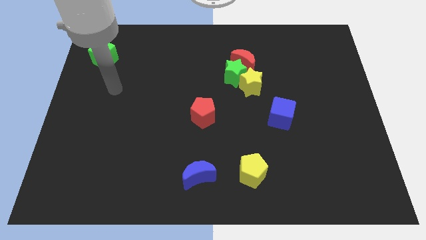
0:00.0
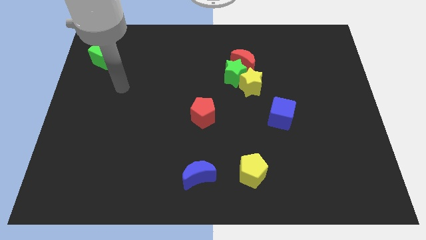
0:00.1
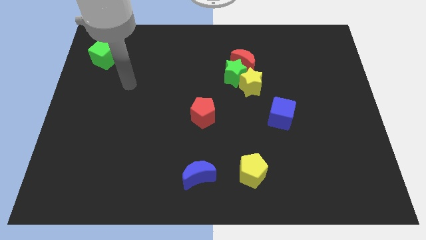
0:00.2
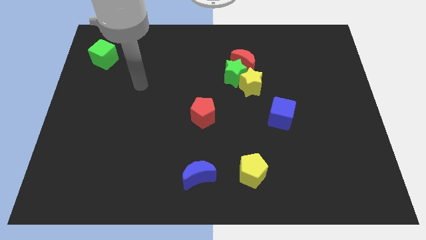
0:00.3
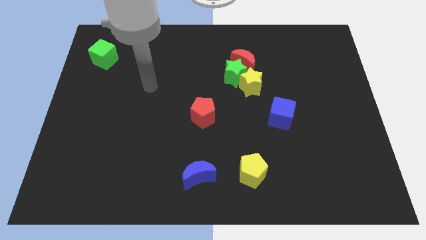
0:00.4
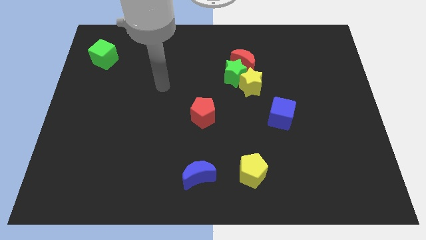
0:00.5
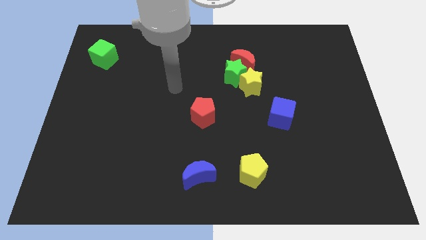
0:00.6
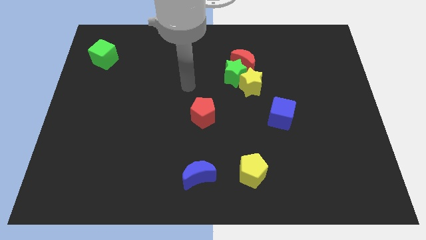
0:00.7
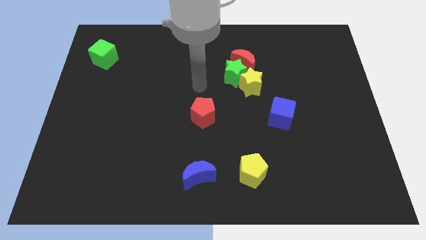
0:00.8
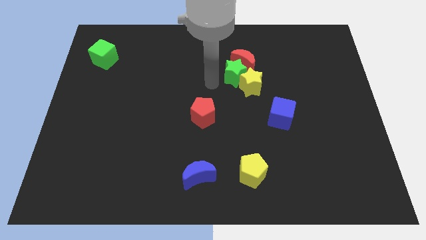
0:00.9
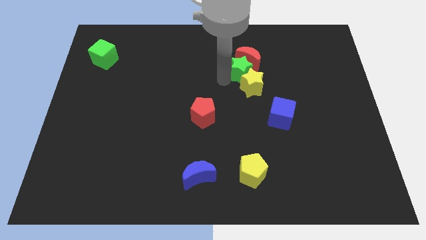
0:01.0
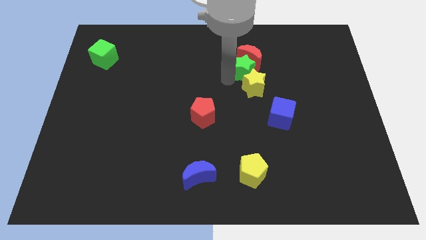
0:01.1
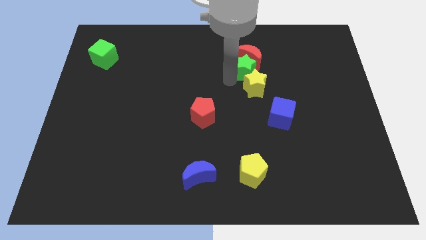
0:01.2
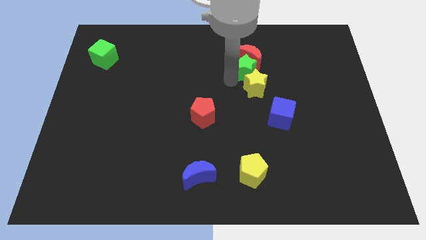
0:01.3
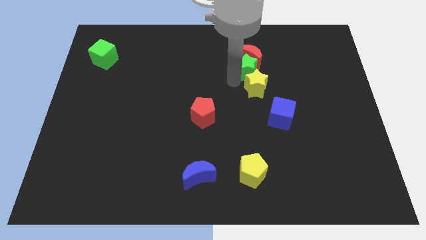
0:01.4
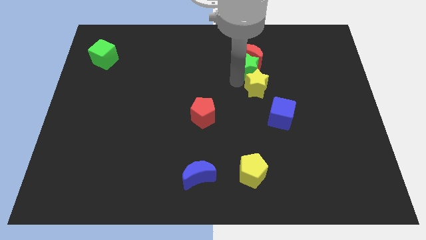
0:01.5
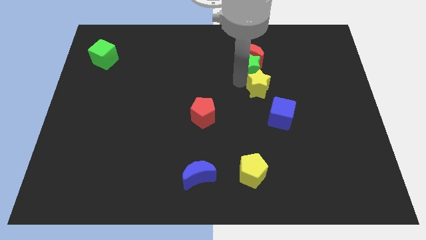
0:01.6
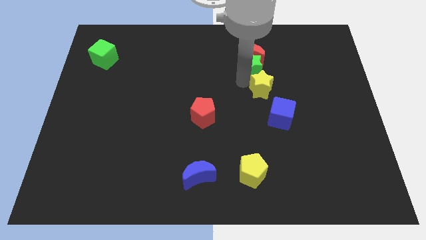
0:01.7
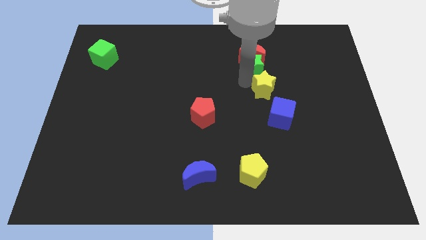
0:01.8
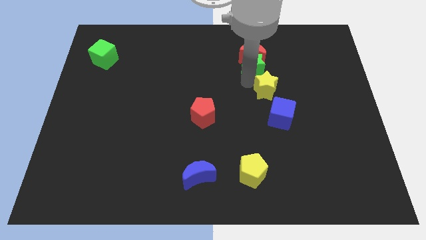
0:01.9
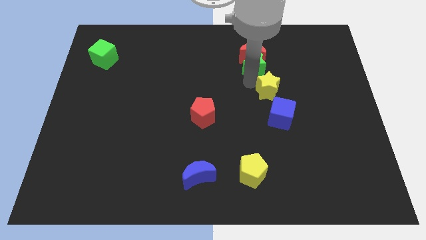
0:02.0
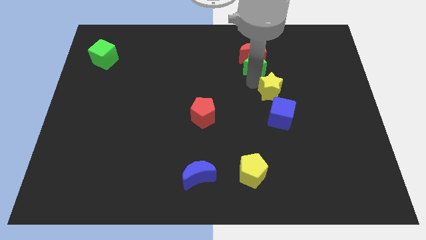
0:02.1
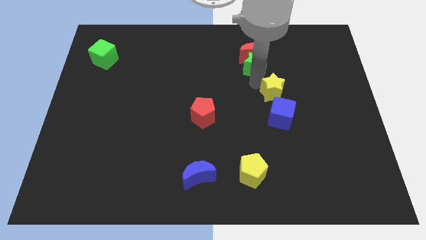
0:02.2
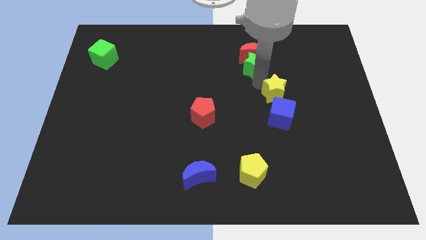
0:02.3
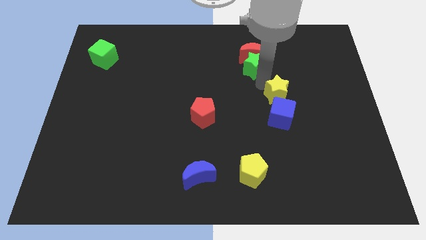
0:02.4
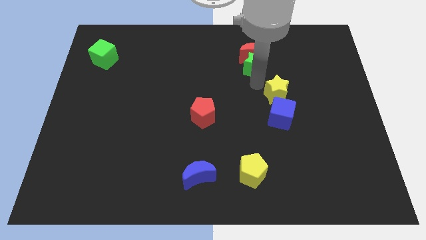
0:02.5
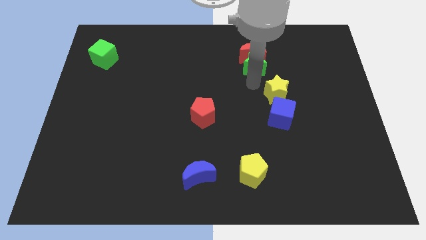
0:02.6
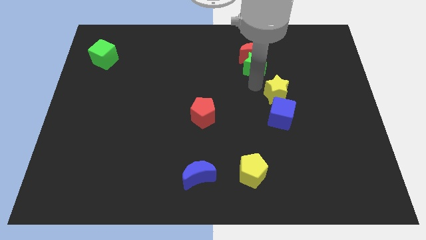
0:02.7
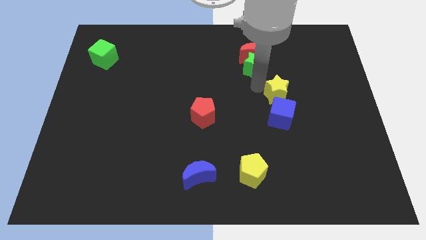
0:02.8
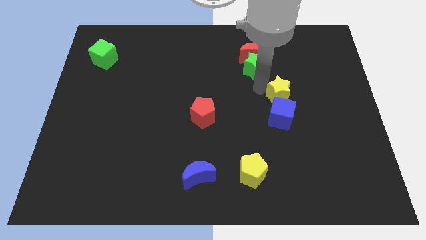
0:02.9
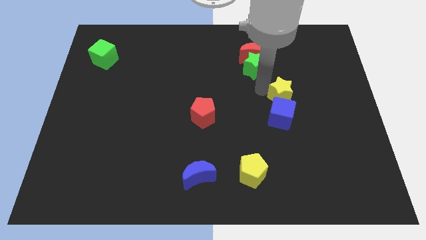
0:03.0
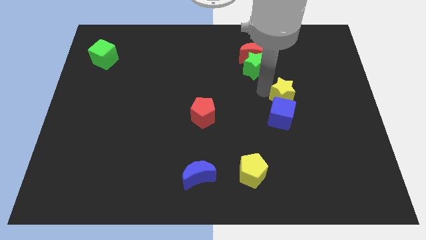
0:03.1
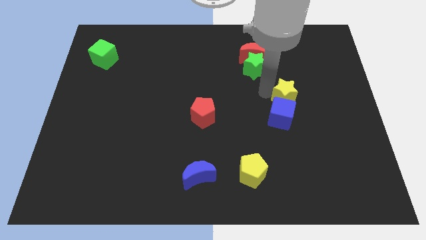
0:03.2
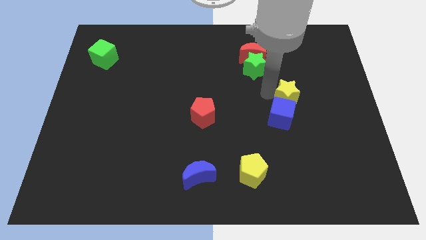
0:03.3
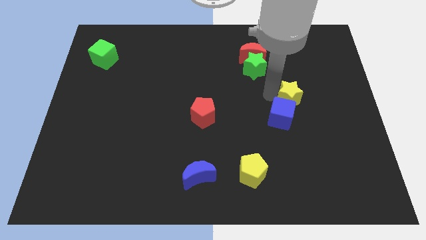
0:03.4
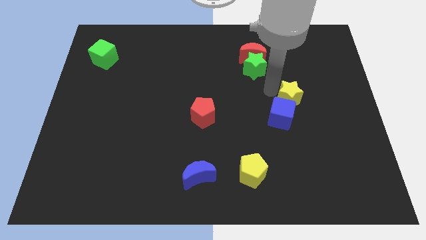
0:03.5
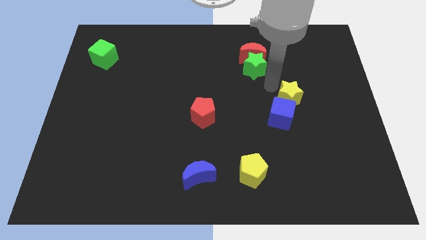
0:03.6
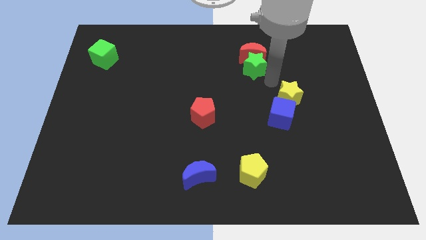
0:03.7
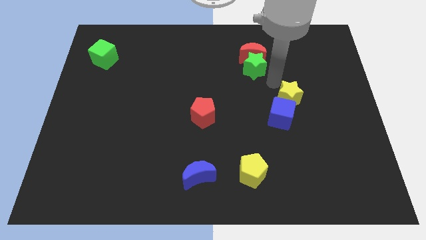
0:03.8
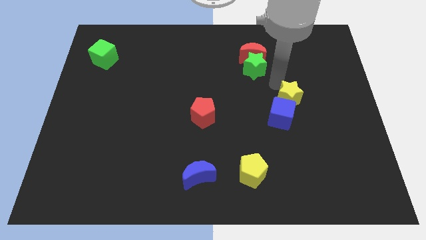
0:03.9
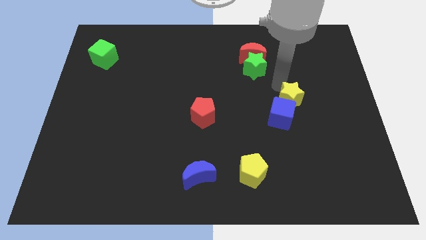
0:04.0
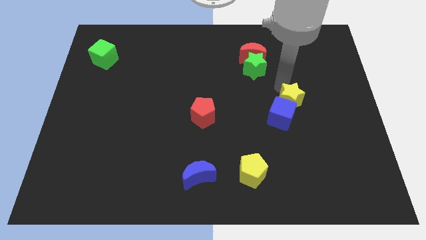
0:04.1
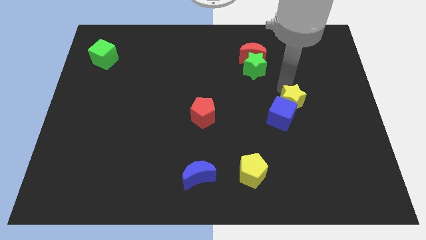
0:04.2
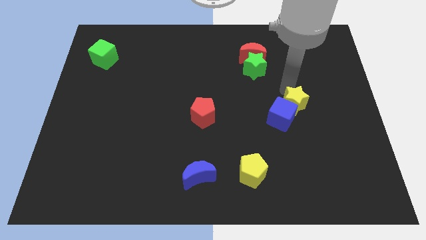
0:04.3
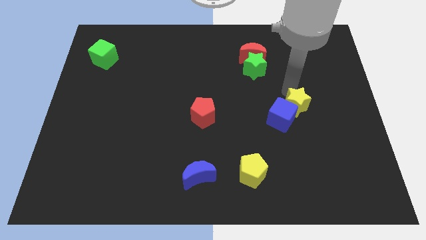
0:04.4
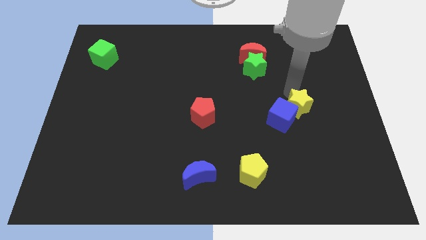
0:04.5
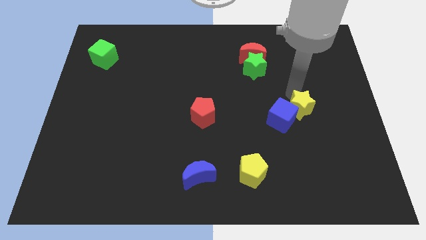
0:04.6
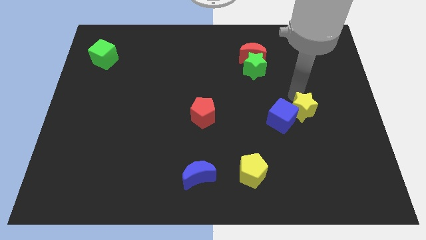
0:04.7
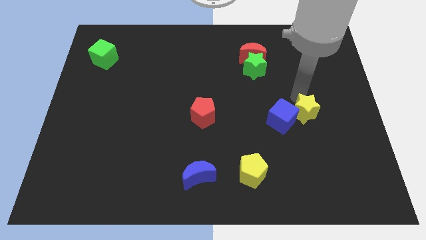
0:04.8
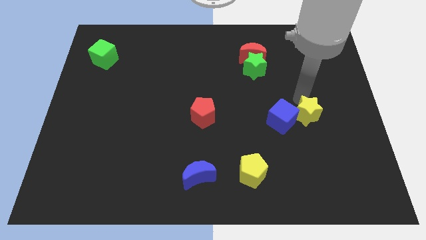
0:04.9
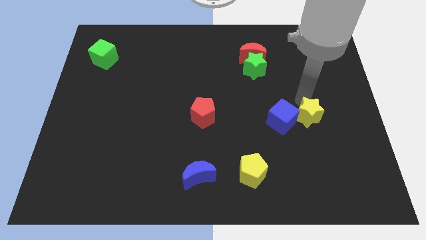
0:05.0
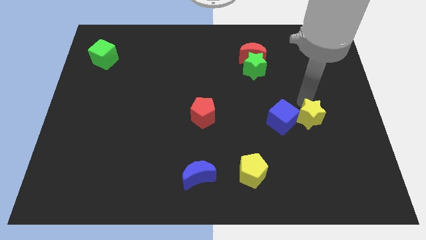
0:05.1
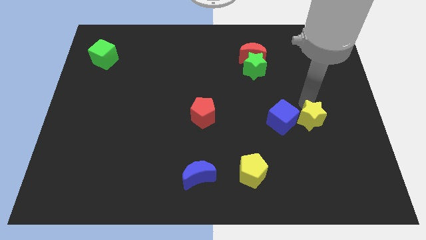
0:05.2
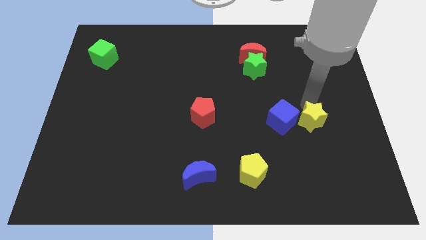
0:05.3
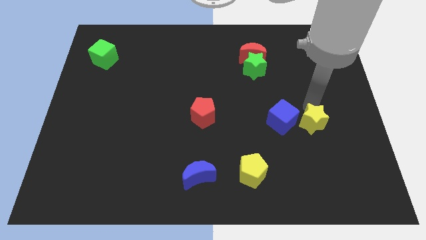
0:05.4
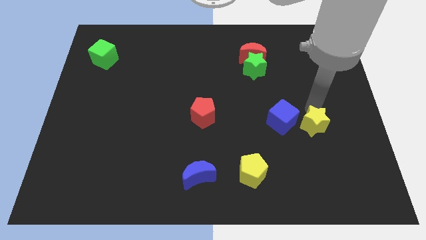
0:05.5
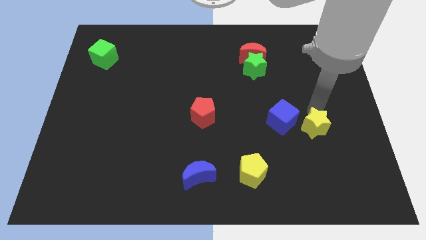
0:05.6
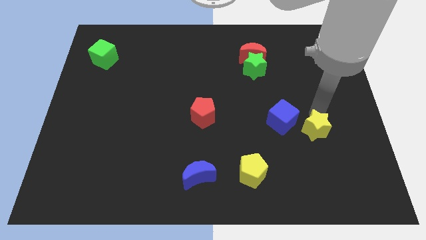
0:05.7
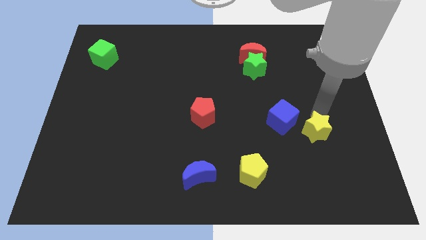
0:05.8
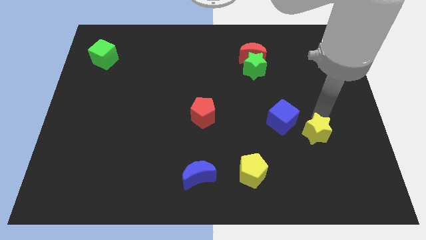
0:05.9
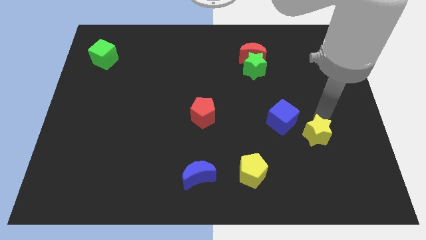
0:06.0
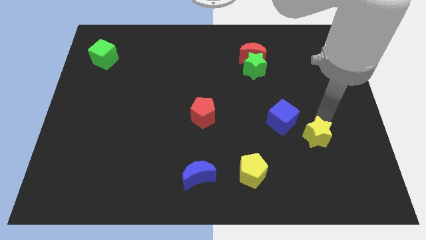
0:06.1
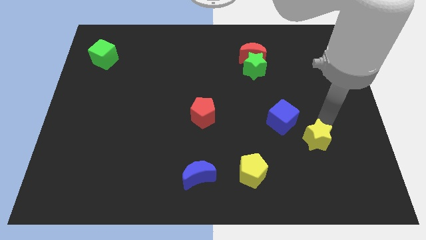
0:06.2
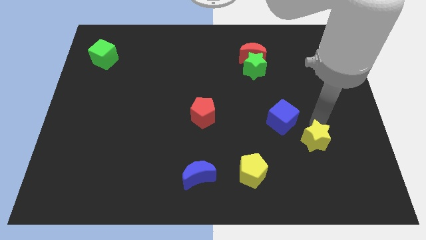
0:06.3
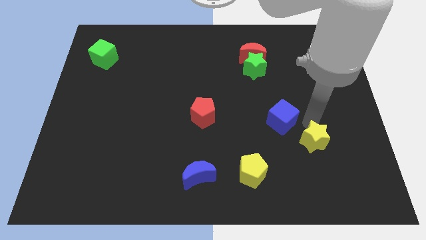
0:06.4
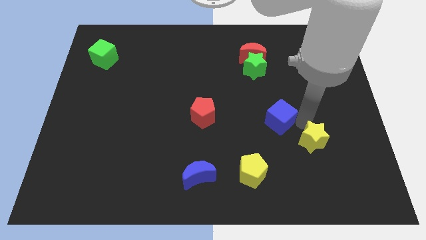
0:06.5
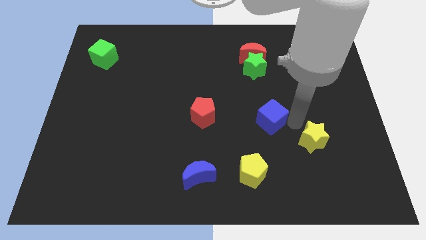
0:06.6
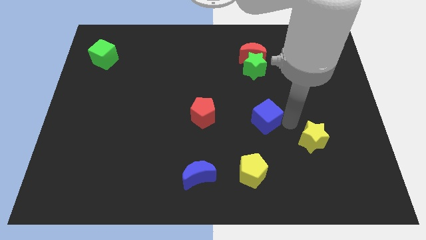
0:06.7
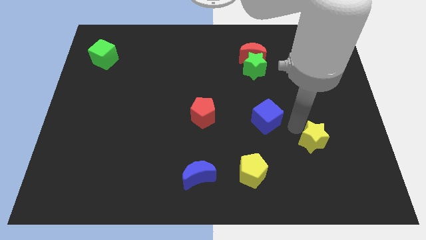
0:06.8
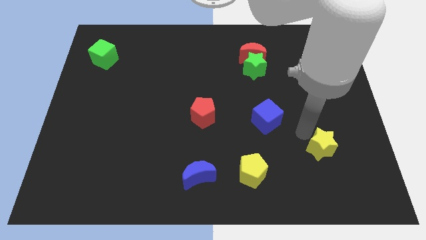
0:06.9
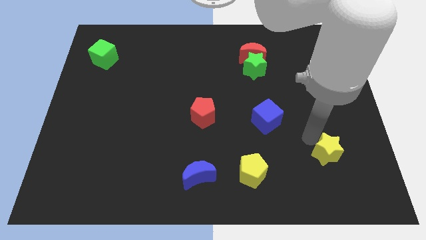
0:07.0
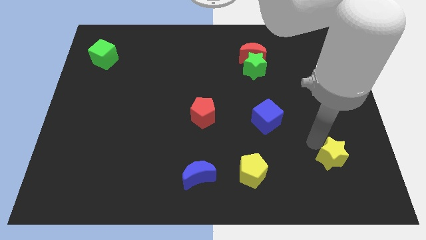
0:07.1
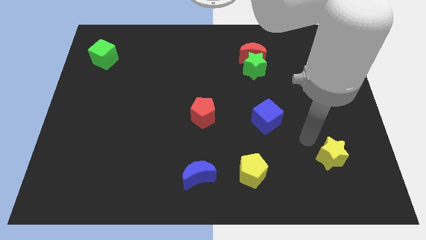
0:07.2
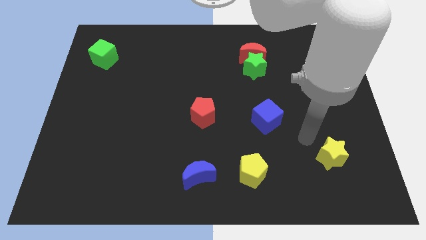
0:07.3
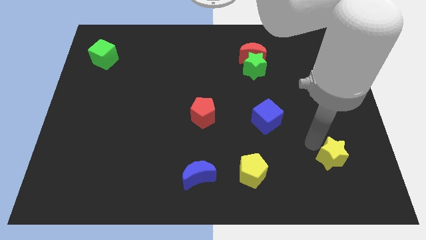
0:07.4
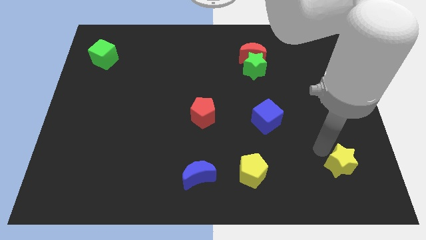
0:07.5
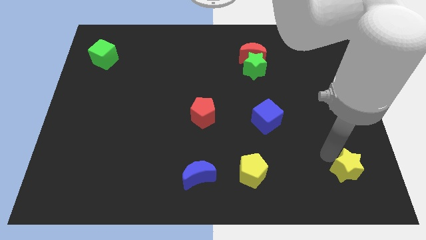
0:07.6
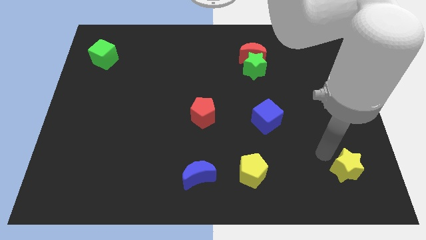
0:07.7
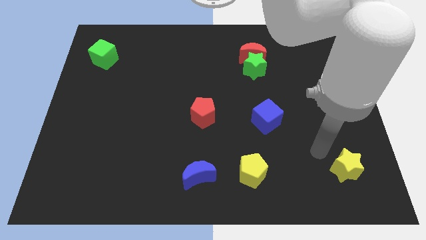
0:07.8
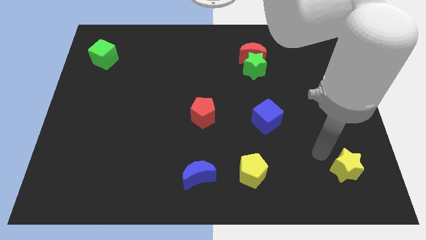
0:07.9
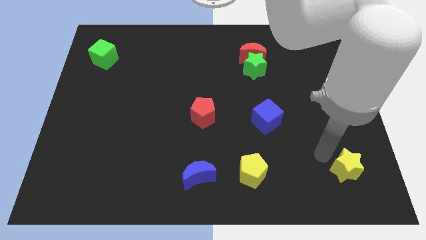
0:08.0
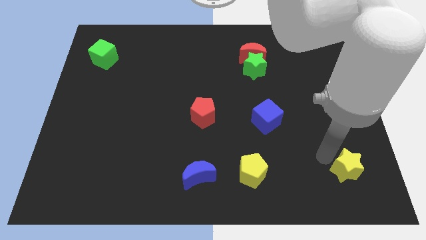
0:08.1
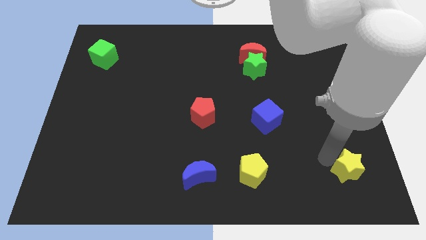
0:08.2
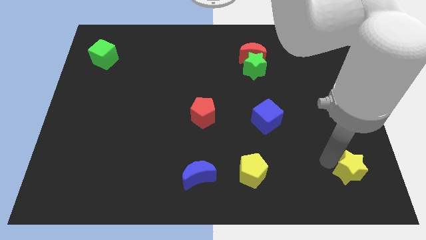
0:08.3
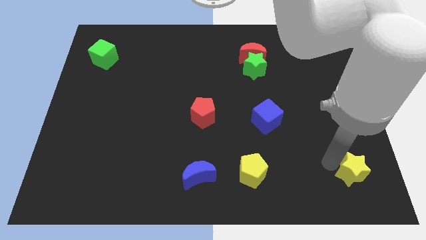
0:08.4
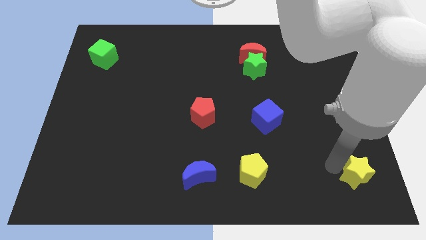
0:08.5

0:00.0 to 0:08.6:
slide the yellow star to the bottom right corner
